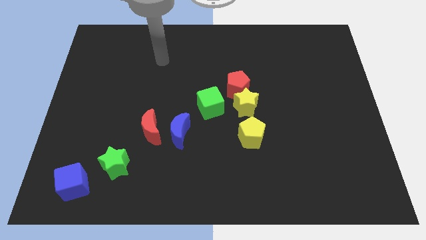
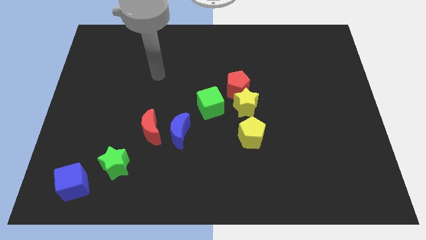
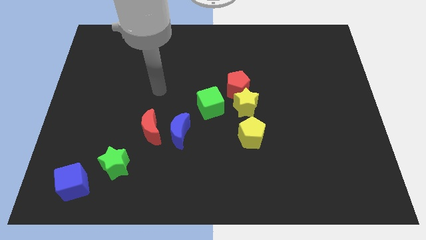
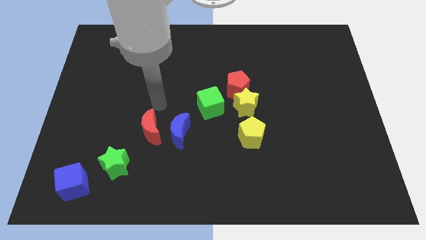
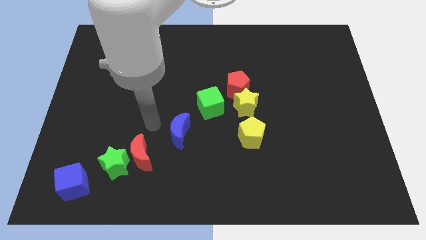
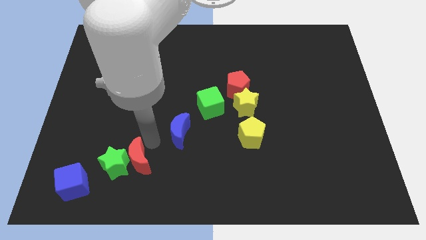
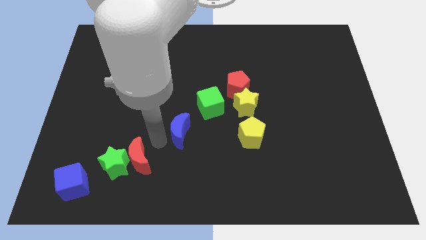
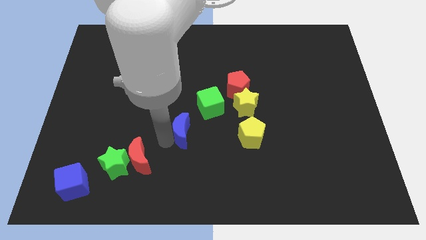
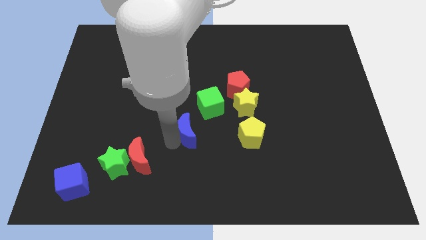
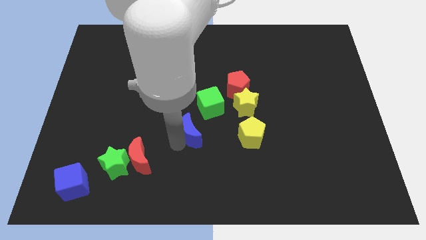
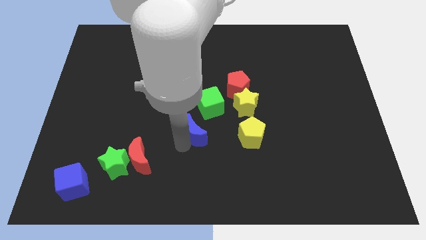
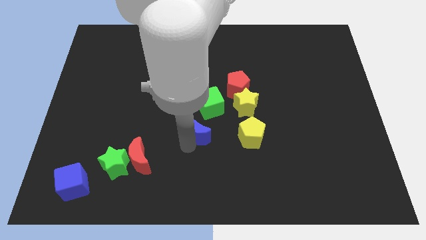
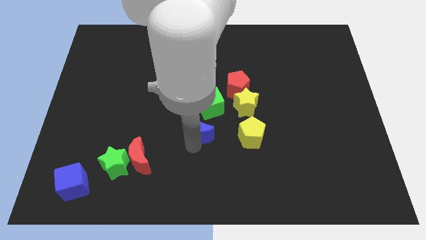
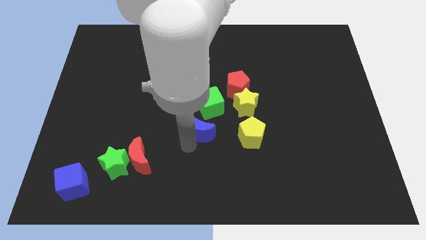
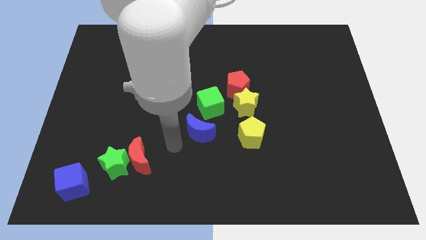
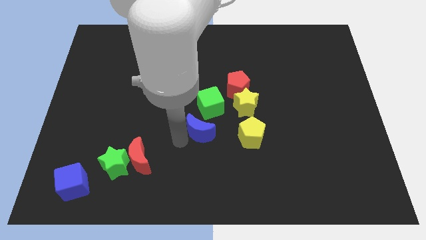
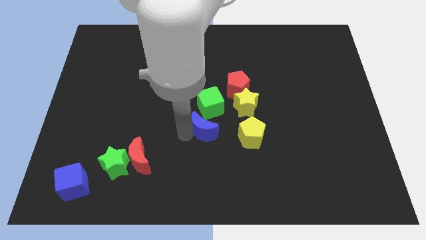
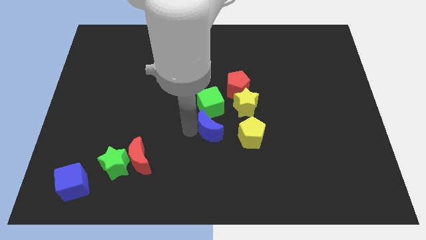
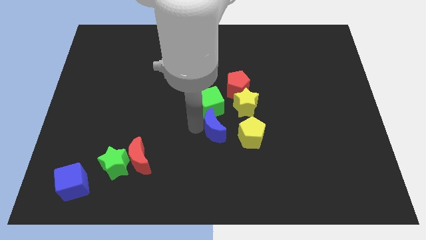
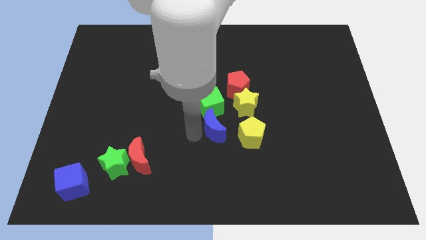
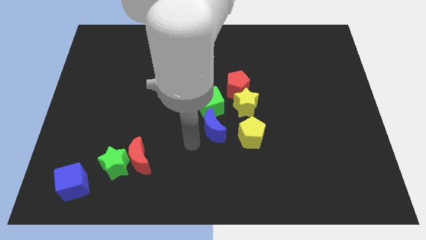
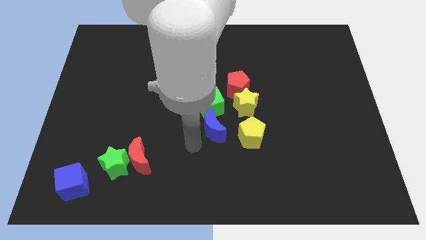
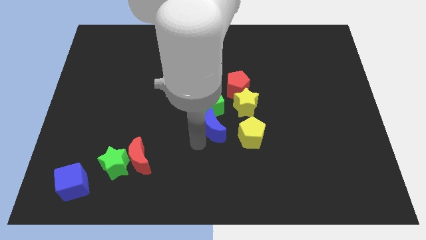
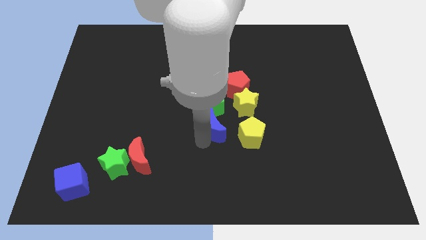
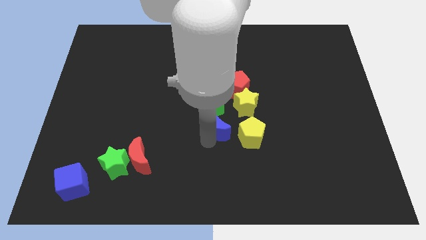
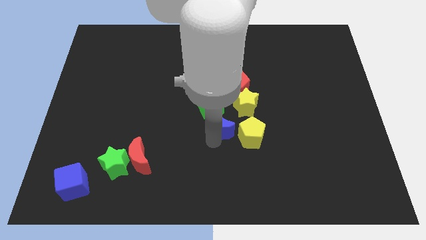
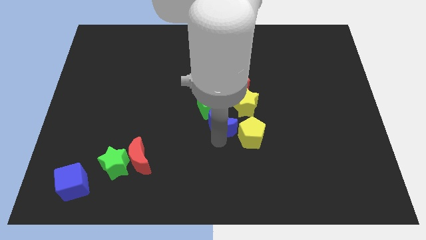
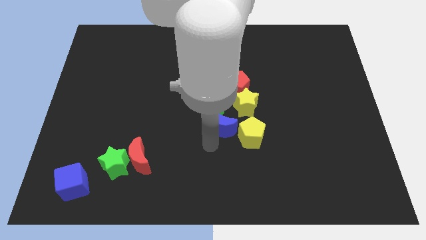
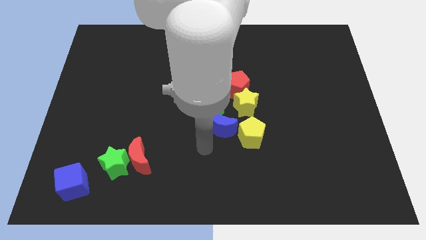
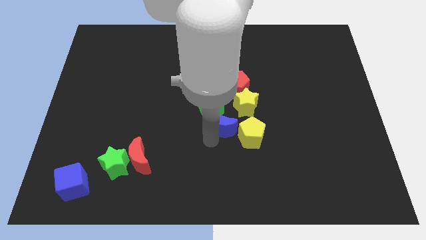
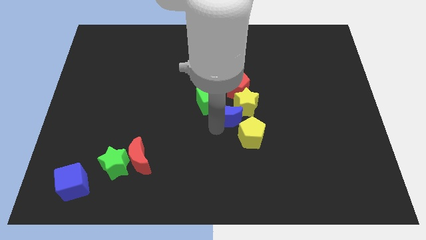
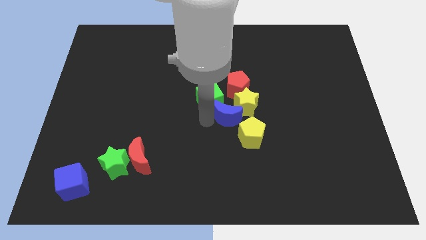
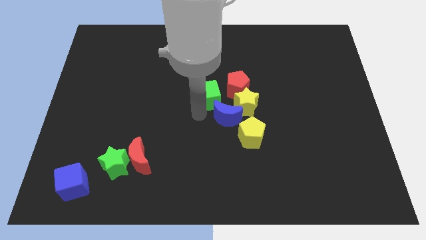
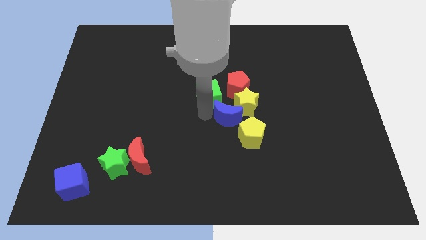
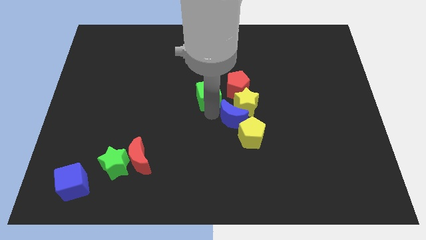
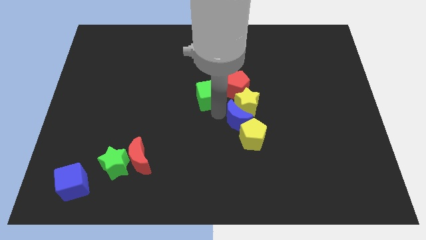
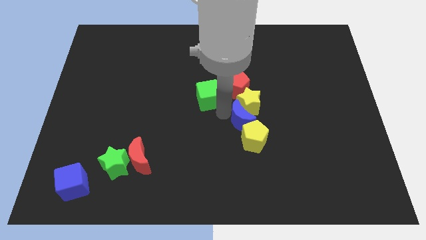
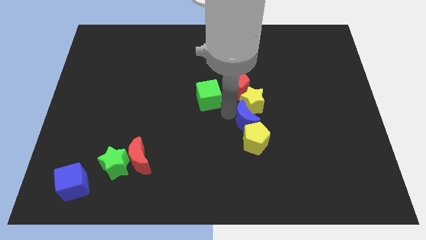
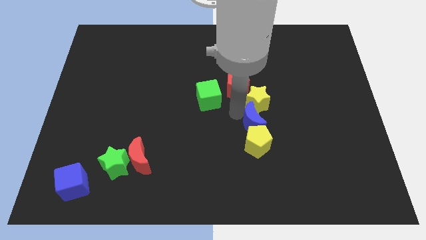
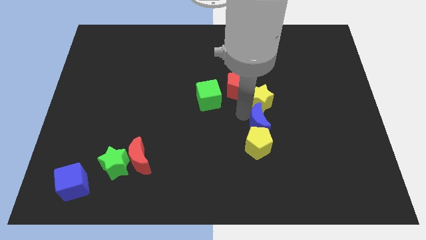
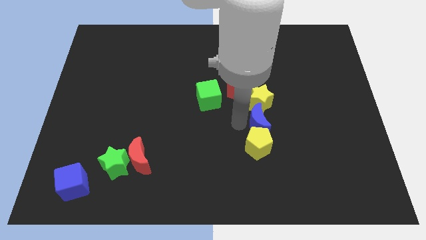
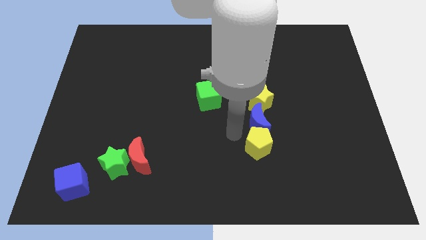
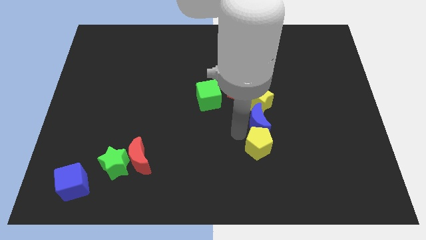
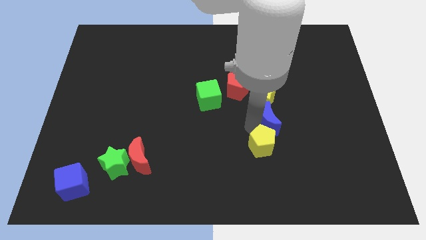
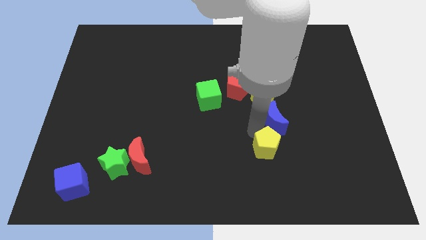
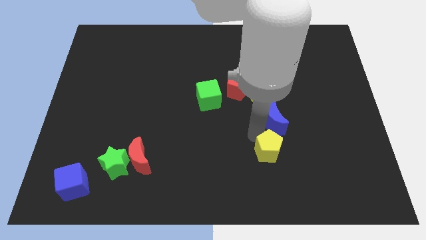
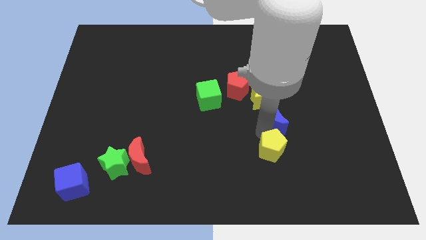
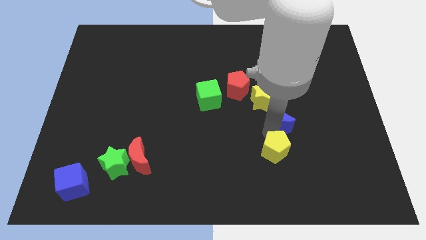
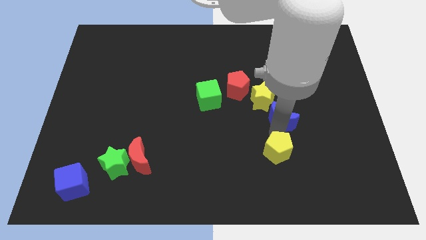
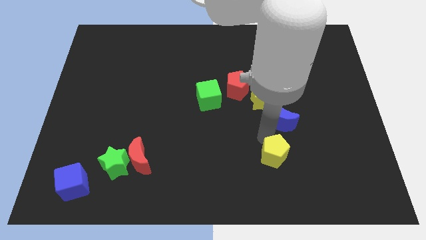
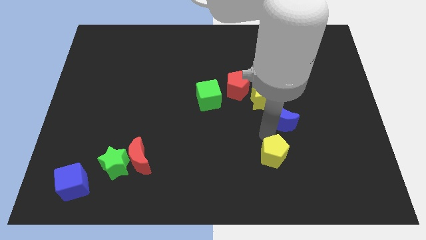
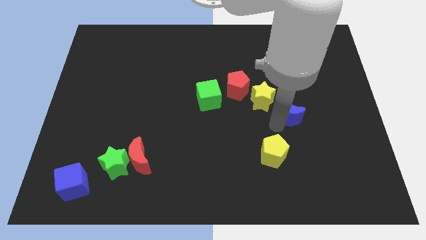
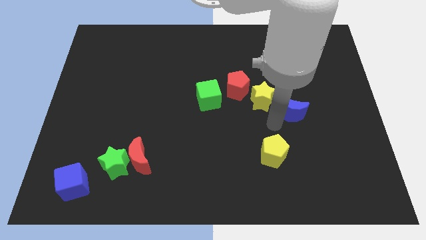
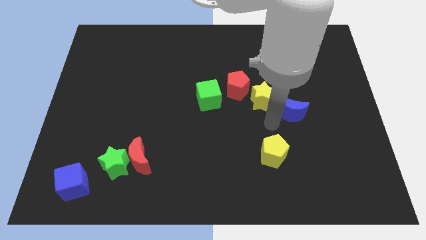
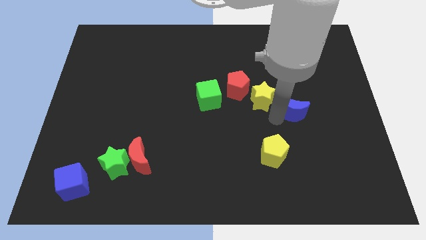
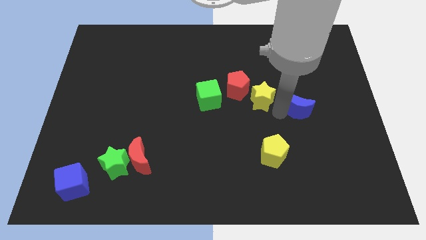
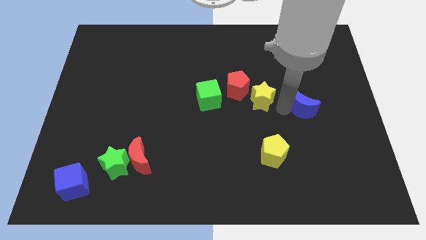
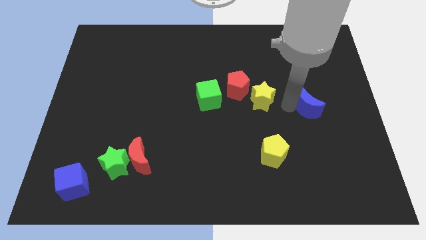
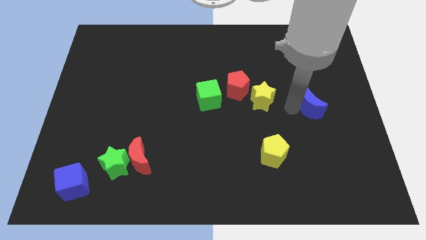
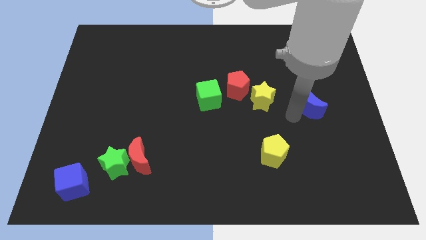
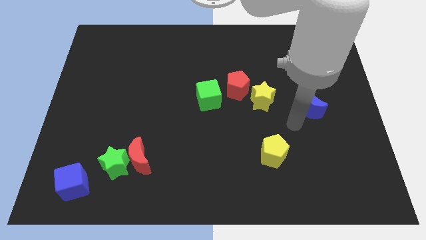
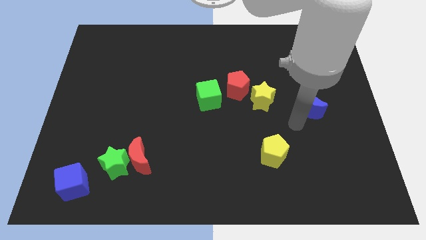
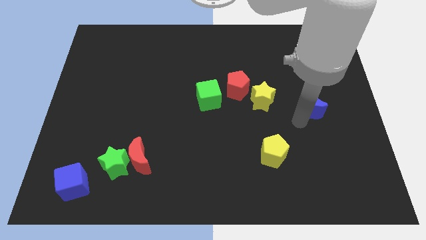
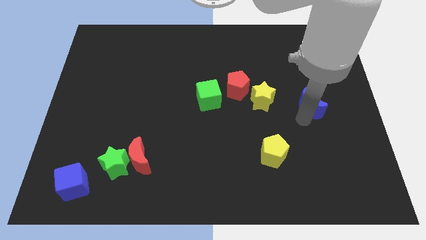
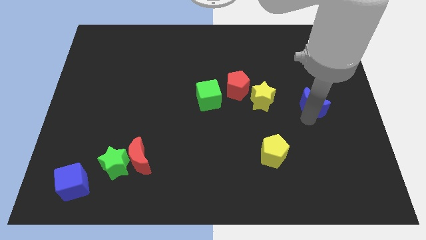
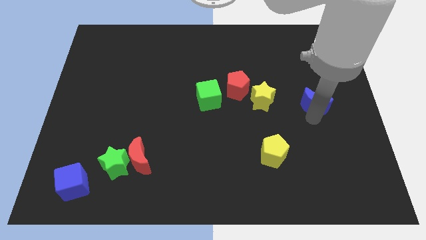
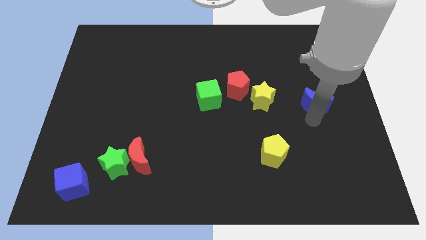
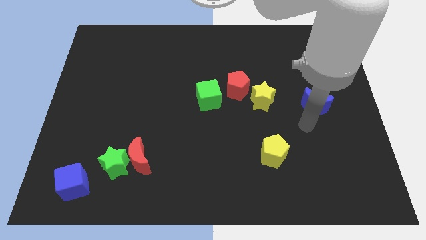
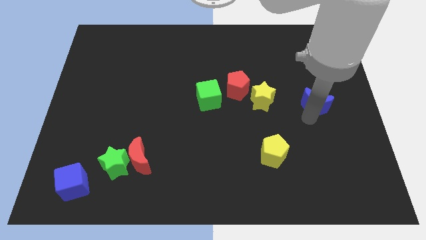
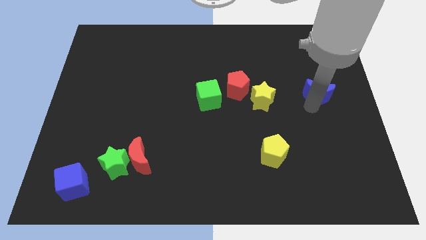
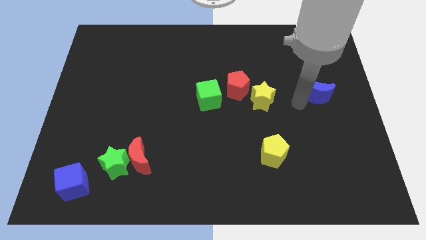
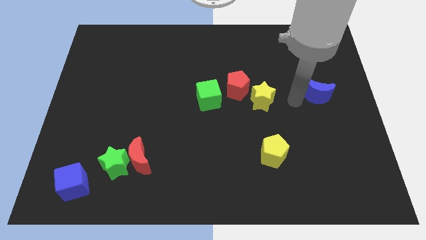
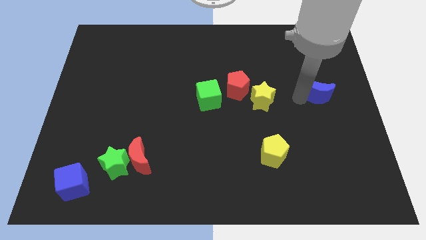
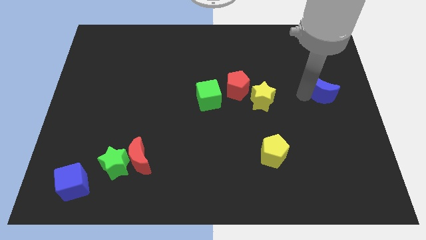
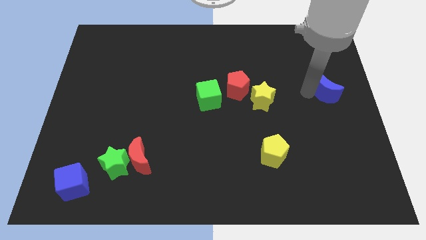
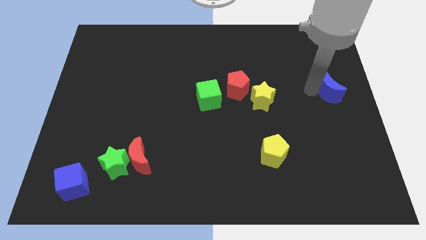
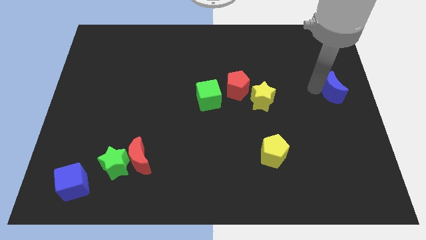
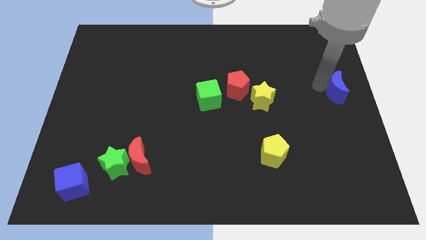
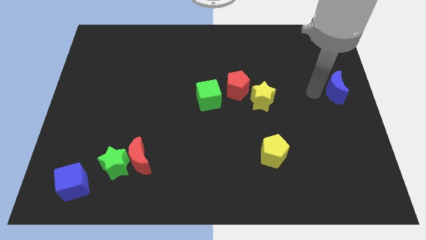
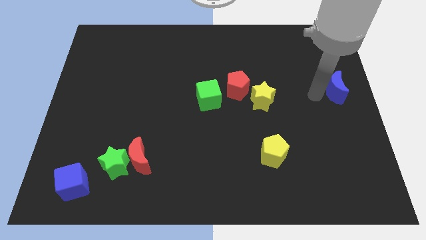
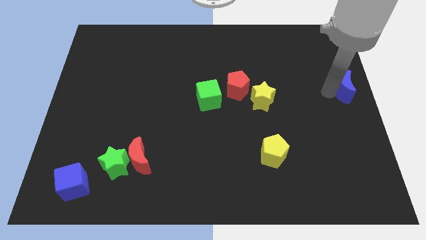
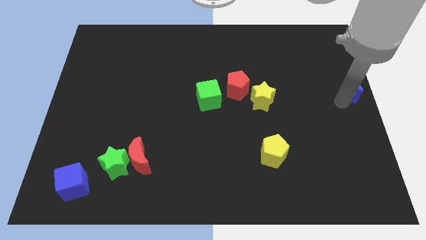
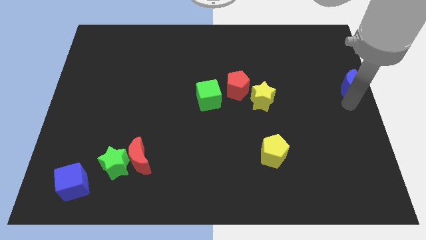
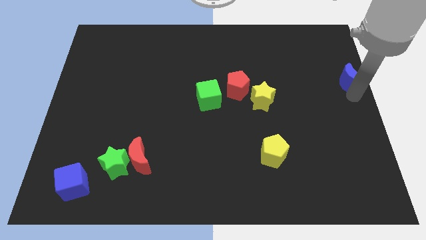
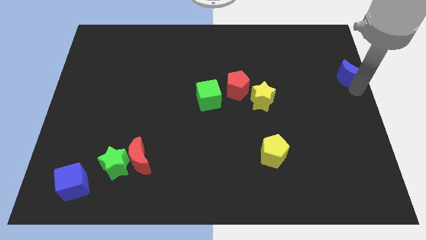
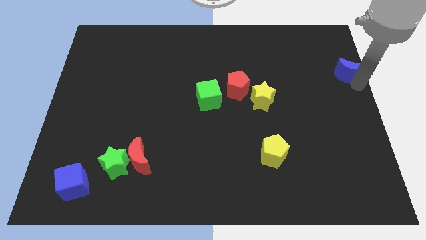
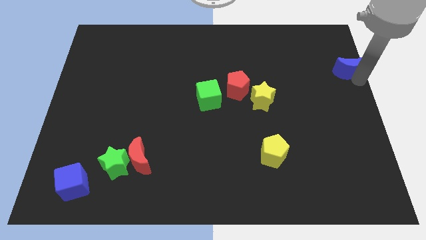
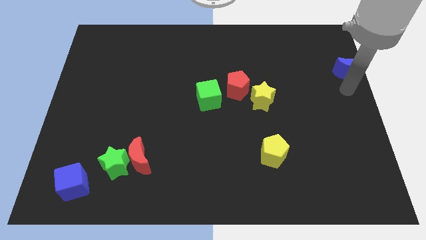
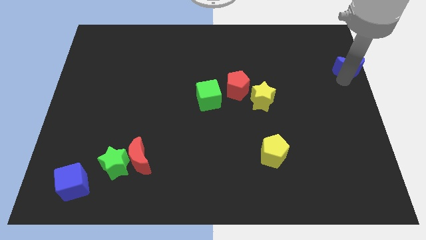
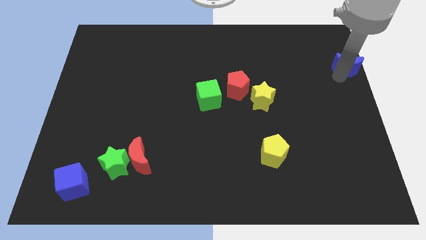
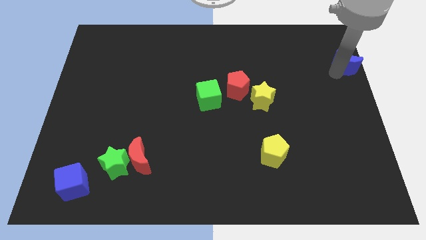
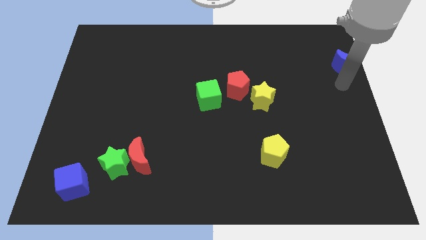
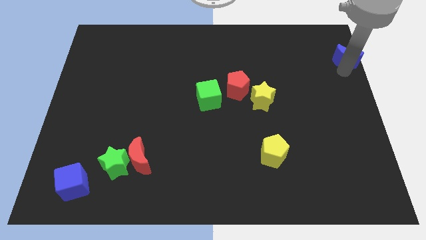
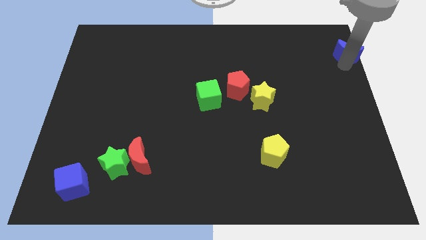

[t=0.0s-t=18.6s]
move the blue moon to the top right
